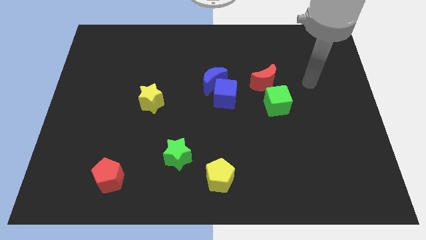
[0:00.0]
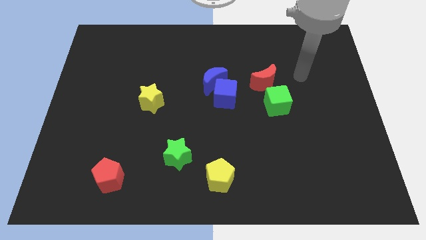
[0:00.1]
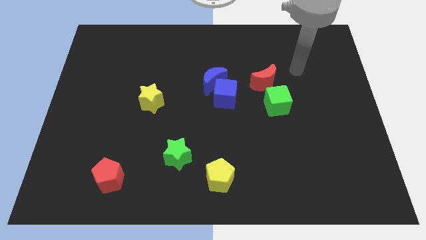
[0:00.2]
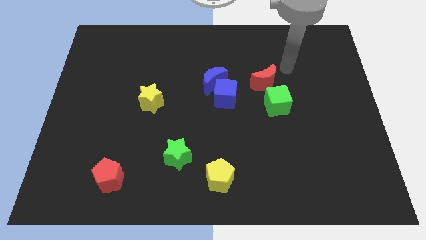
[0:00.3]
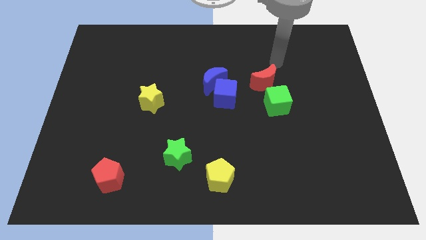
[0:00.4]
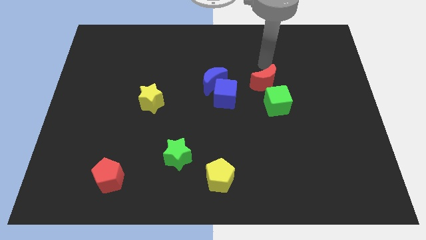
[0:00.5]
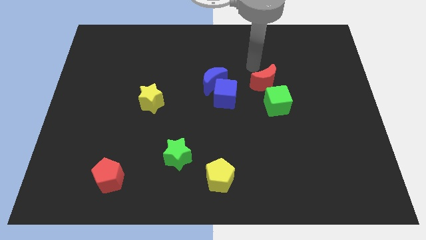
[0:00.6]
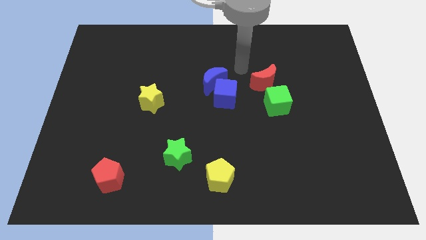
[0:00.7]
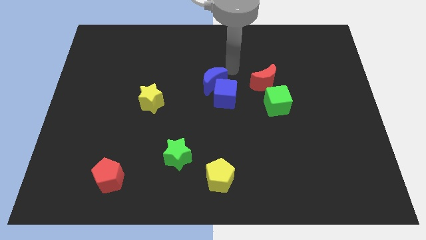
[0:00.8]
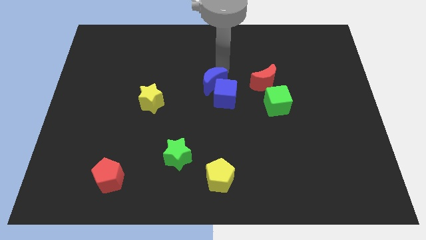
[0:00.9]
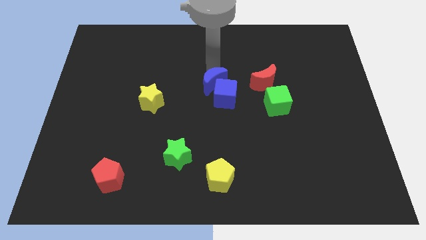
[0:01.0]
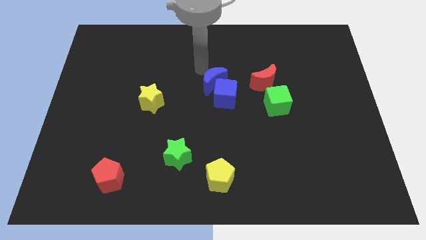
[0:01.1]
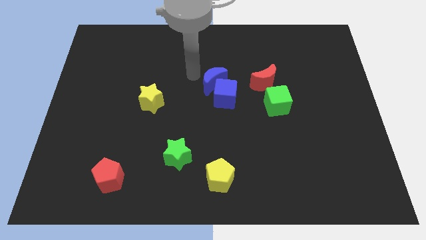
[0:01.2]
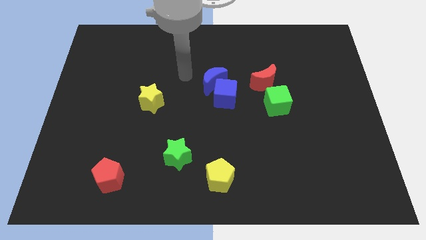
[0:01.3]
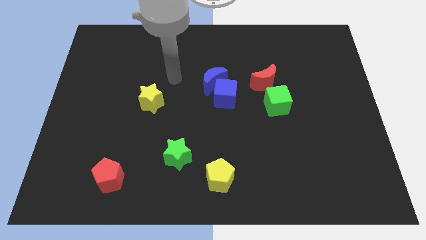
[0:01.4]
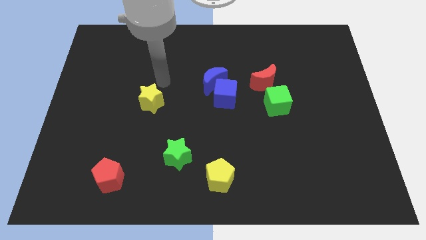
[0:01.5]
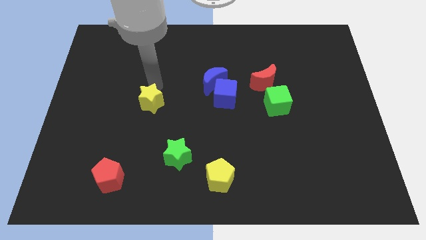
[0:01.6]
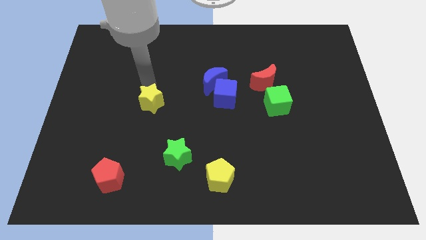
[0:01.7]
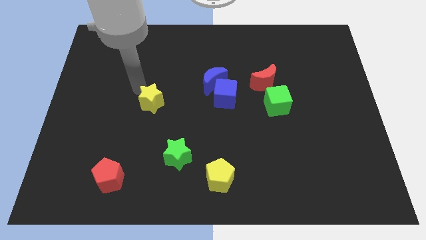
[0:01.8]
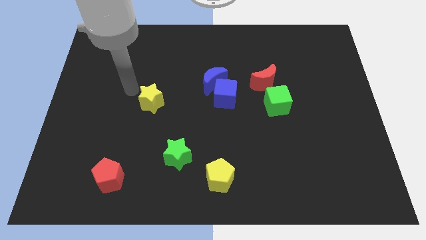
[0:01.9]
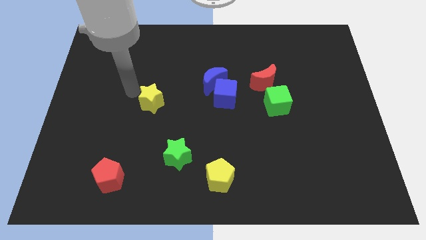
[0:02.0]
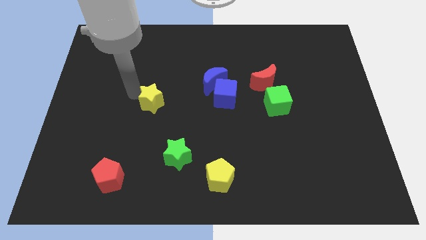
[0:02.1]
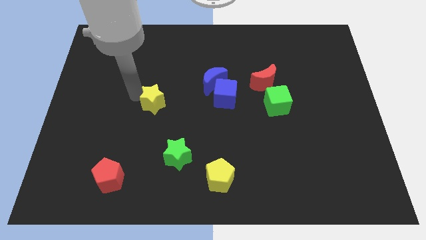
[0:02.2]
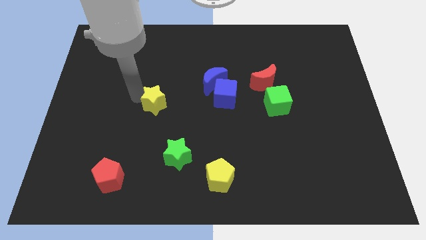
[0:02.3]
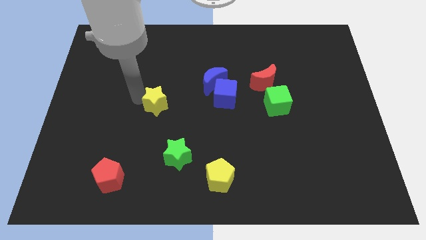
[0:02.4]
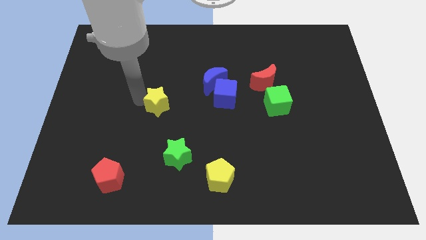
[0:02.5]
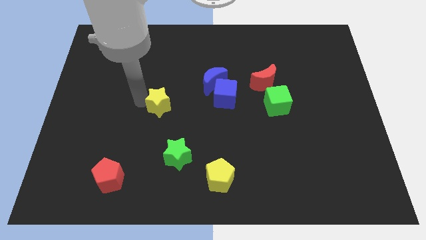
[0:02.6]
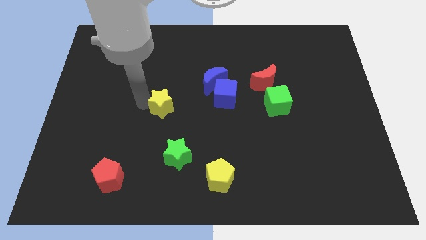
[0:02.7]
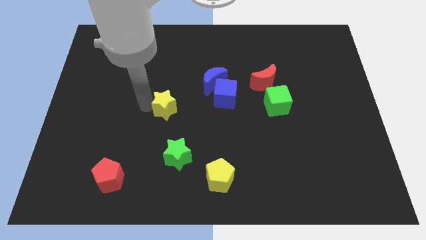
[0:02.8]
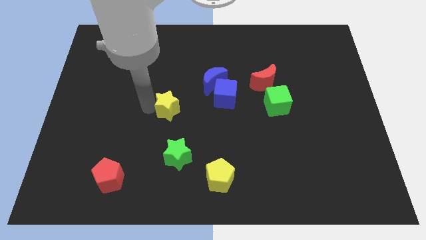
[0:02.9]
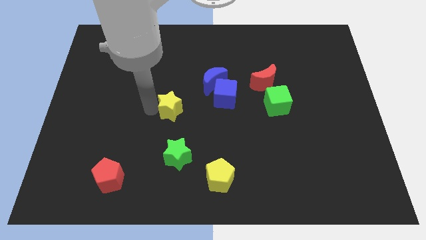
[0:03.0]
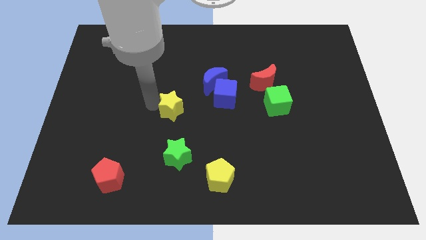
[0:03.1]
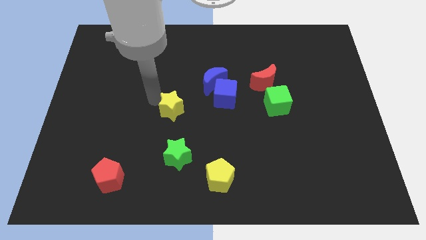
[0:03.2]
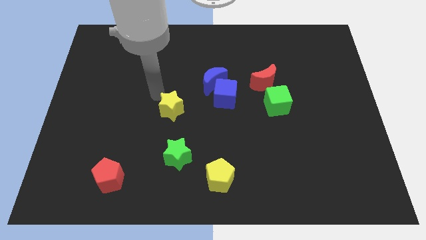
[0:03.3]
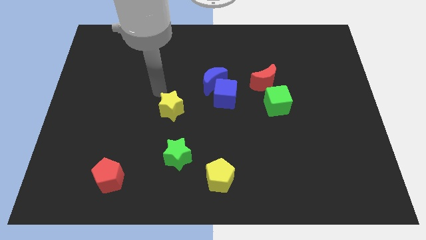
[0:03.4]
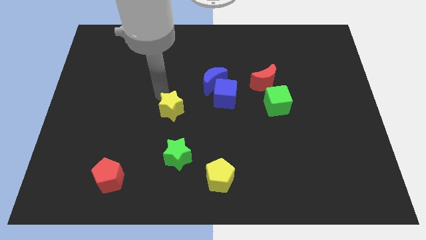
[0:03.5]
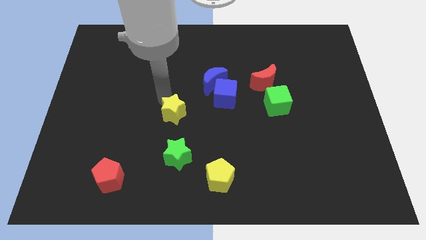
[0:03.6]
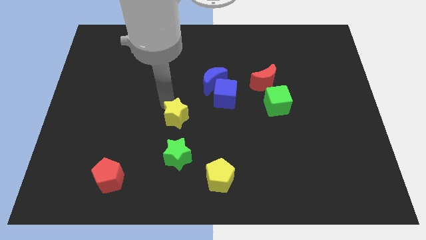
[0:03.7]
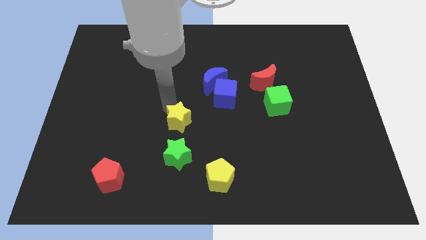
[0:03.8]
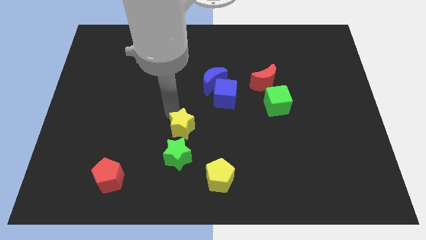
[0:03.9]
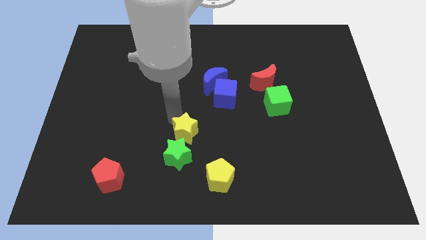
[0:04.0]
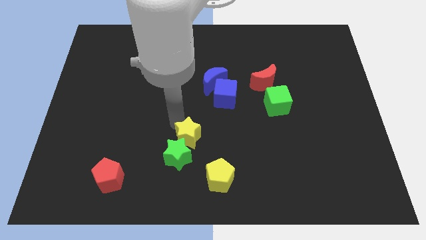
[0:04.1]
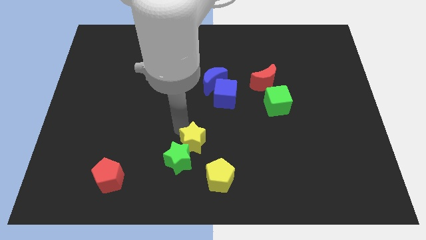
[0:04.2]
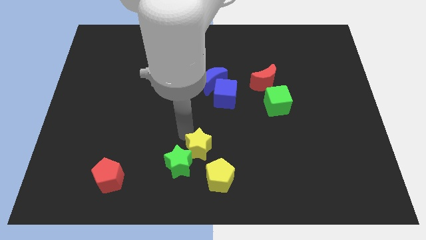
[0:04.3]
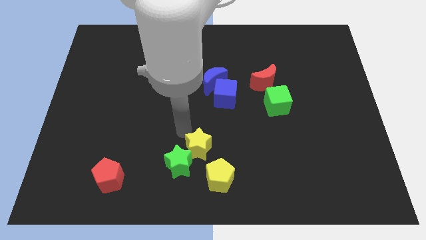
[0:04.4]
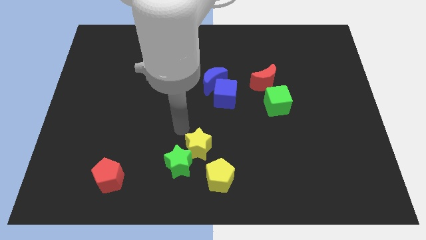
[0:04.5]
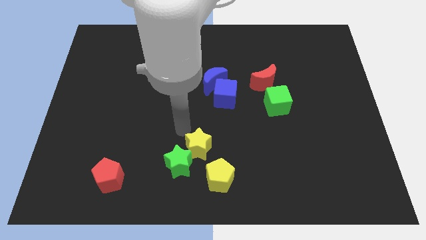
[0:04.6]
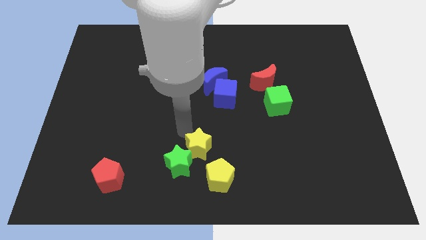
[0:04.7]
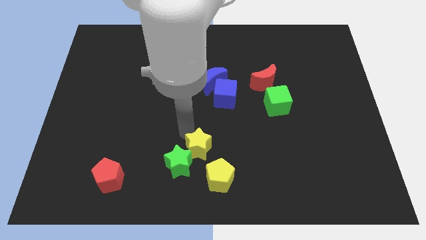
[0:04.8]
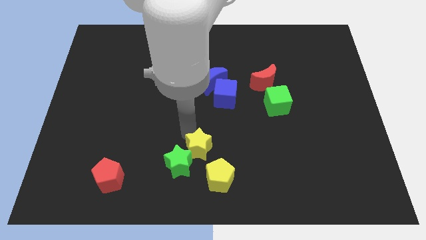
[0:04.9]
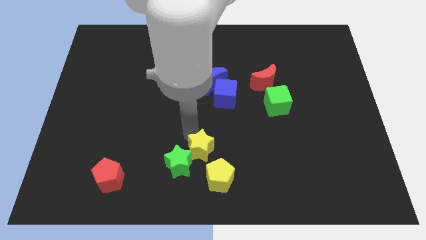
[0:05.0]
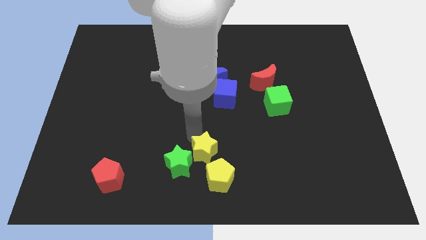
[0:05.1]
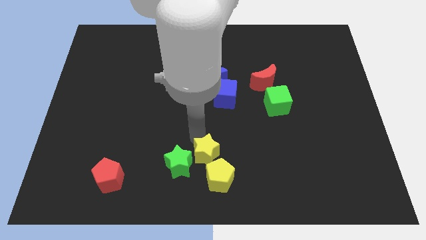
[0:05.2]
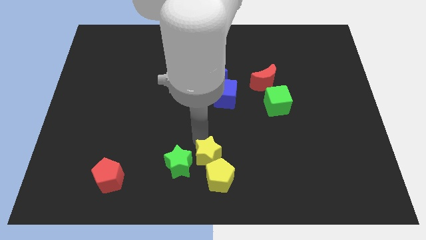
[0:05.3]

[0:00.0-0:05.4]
push the yellow star next to the yellow pentagon

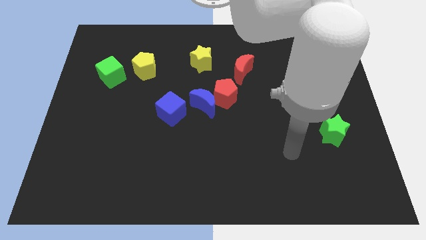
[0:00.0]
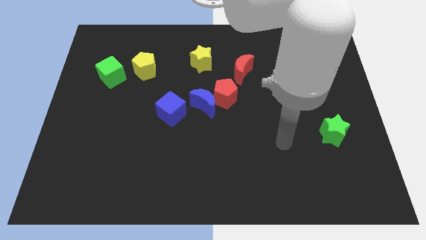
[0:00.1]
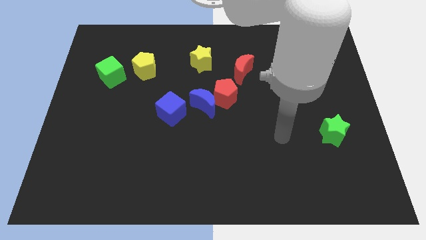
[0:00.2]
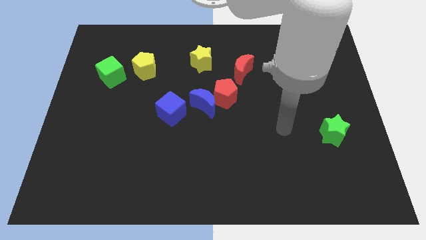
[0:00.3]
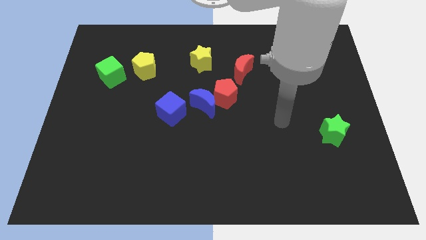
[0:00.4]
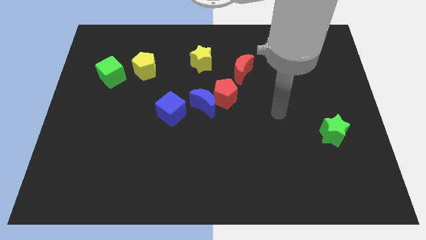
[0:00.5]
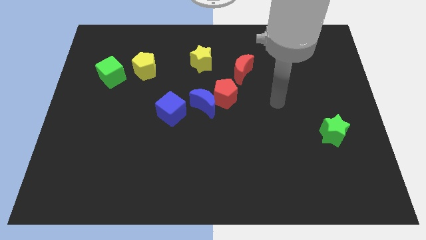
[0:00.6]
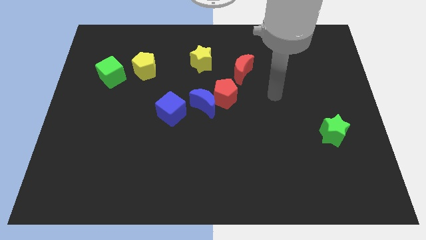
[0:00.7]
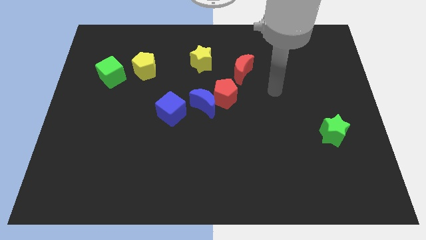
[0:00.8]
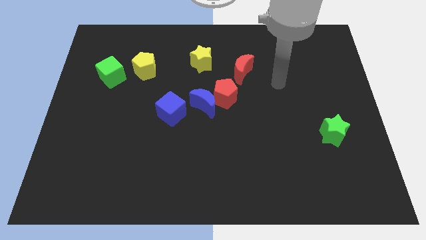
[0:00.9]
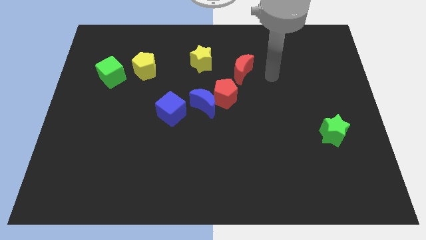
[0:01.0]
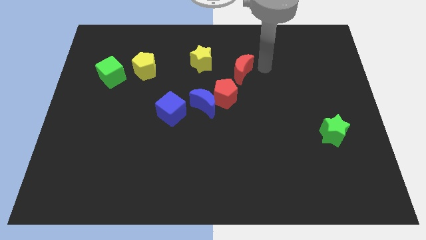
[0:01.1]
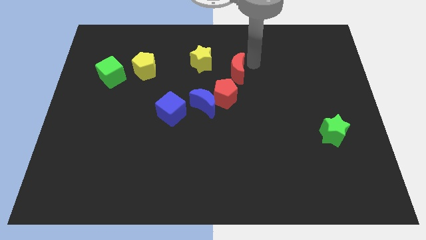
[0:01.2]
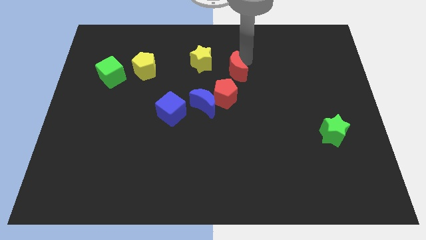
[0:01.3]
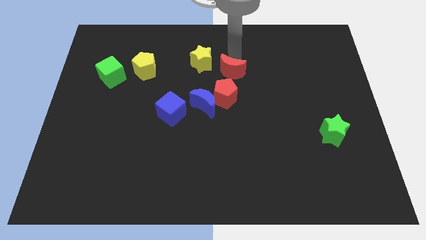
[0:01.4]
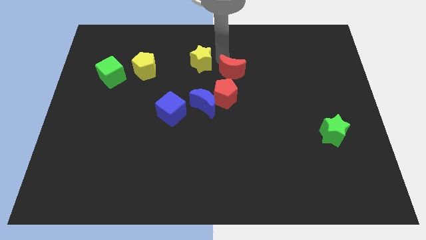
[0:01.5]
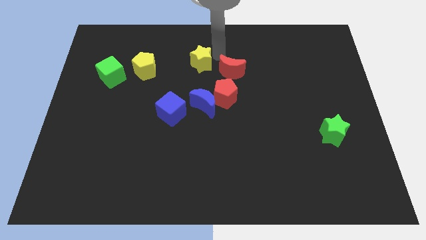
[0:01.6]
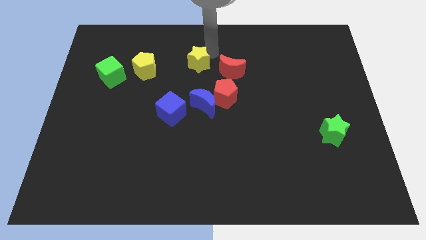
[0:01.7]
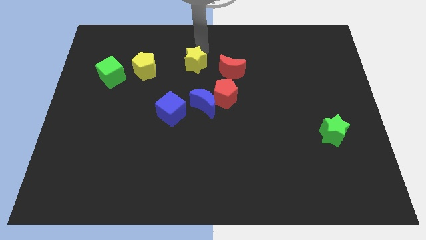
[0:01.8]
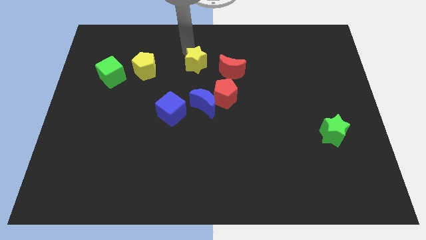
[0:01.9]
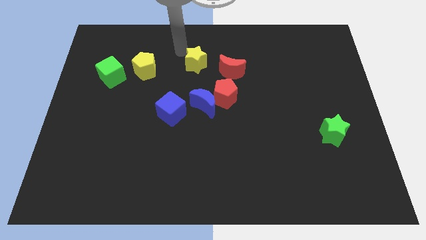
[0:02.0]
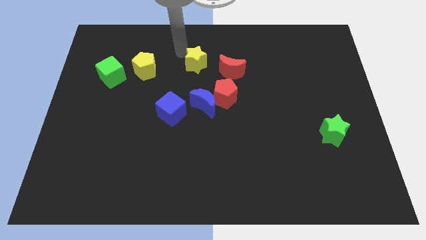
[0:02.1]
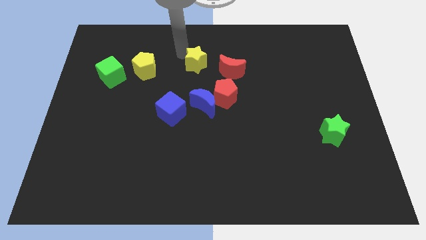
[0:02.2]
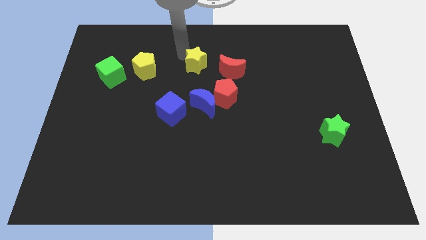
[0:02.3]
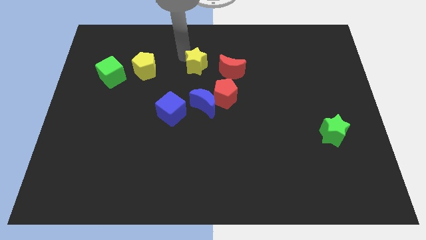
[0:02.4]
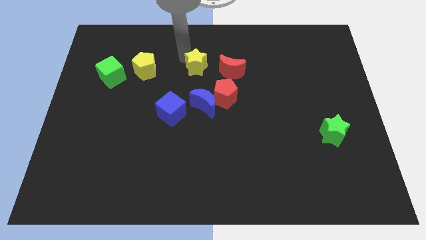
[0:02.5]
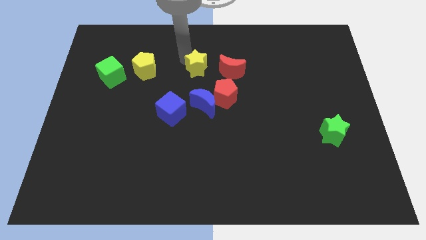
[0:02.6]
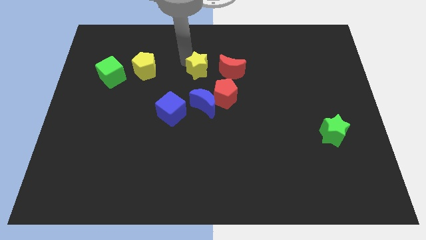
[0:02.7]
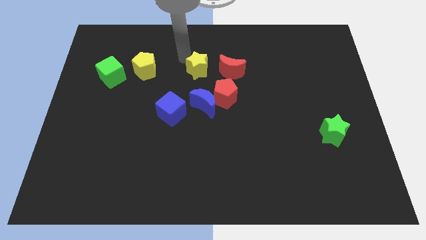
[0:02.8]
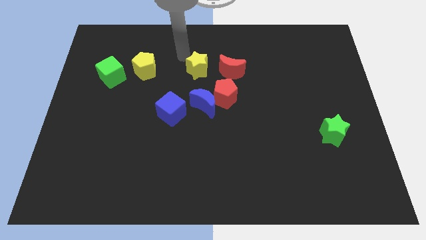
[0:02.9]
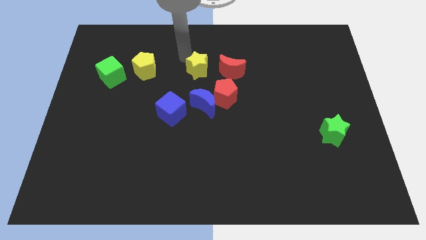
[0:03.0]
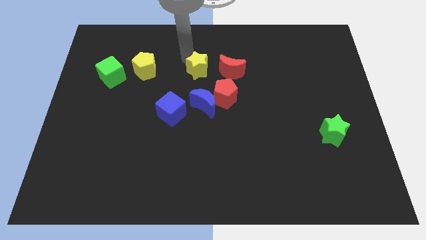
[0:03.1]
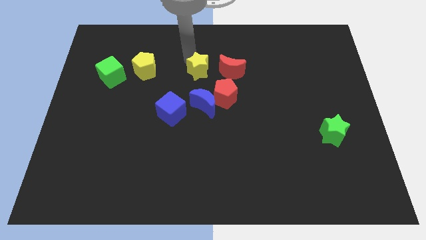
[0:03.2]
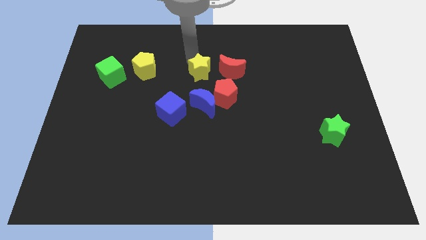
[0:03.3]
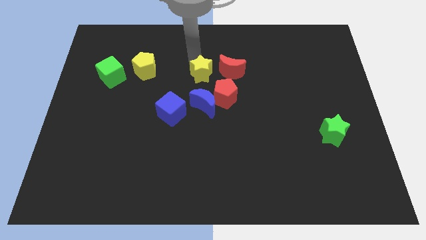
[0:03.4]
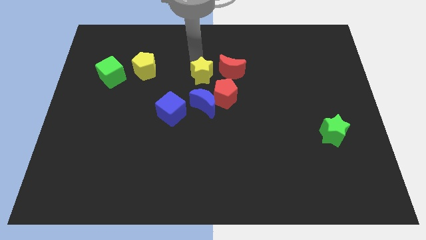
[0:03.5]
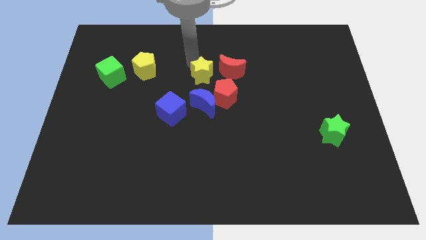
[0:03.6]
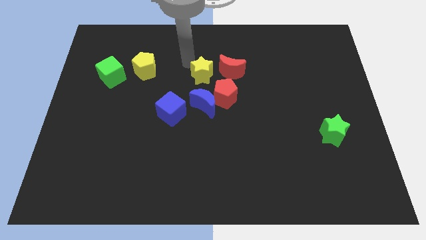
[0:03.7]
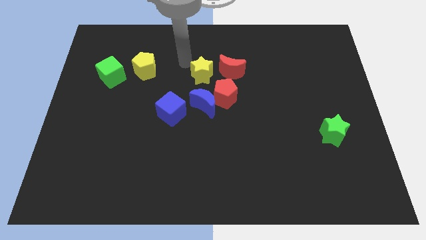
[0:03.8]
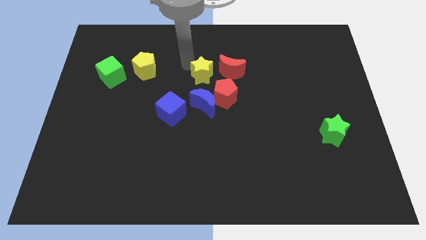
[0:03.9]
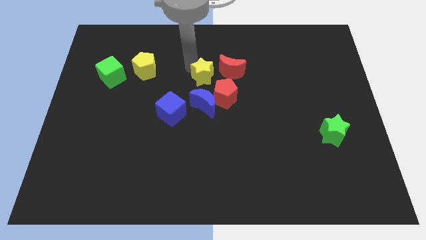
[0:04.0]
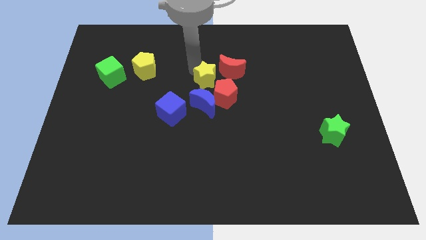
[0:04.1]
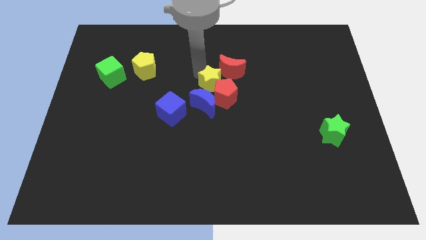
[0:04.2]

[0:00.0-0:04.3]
move the yellow star to the red pentagon
